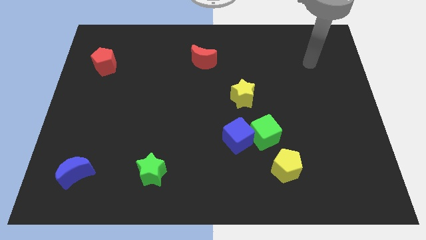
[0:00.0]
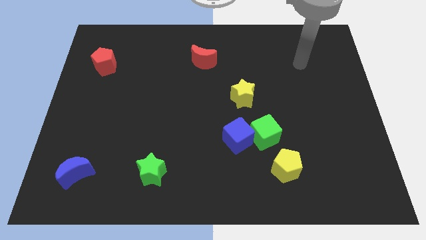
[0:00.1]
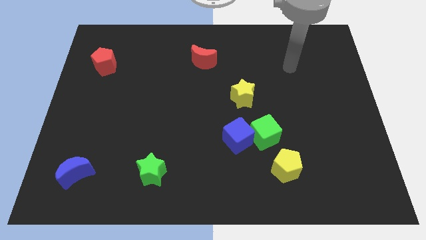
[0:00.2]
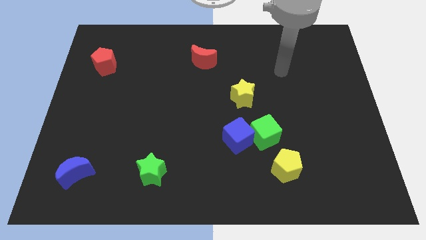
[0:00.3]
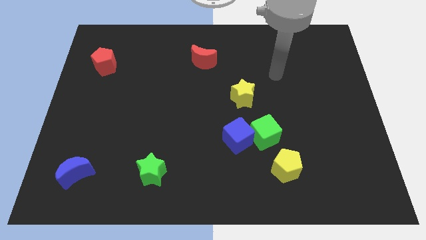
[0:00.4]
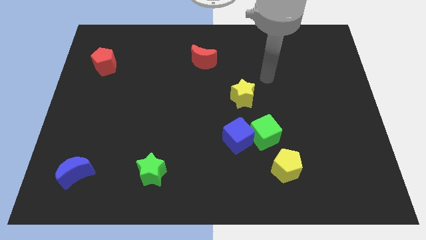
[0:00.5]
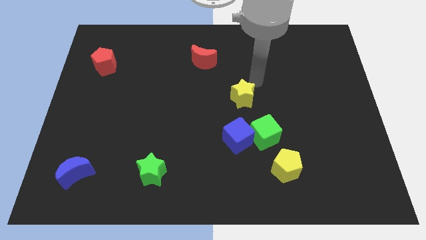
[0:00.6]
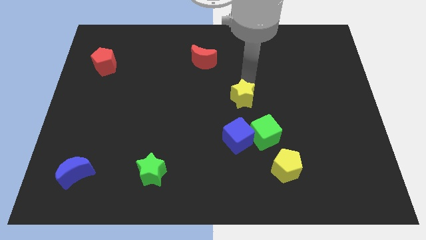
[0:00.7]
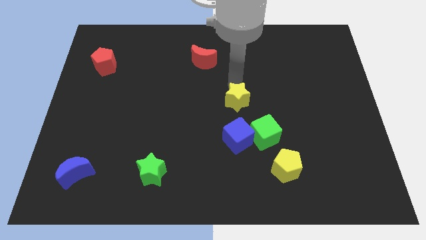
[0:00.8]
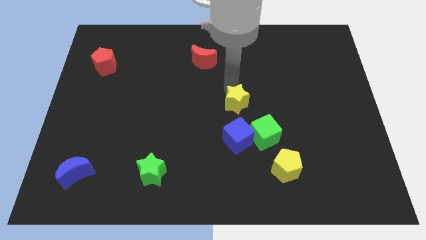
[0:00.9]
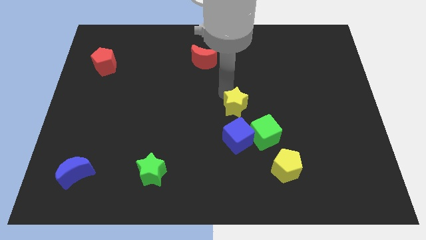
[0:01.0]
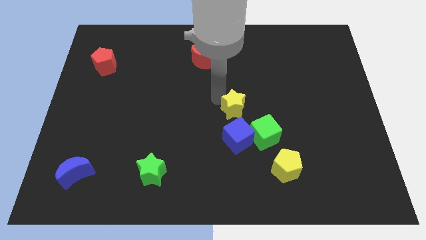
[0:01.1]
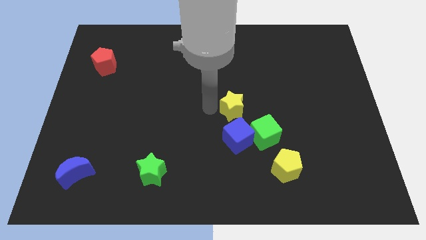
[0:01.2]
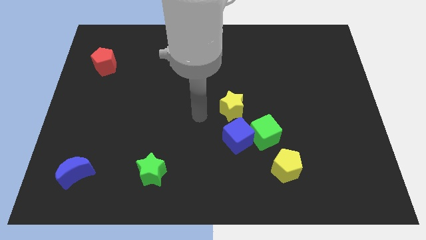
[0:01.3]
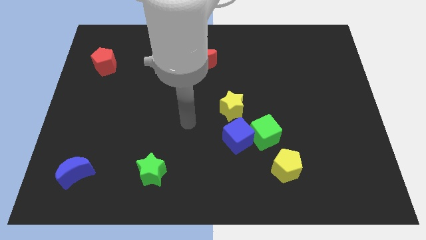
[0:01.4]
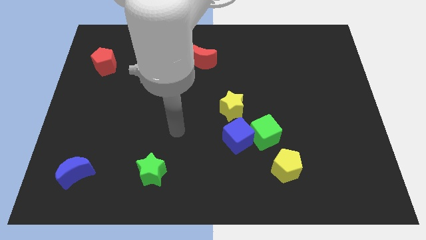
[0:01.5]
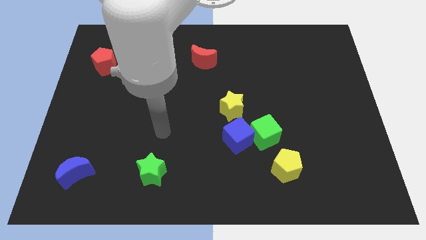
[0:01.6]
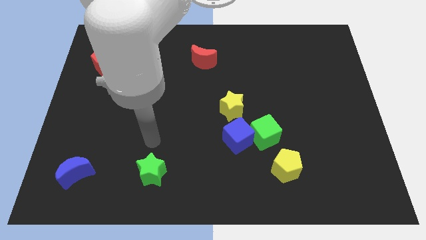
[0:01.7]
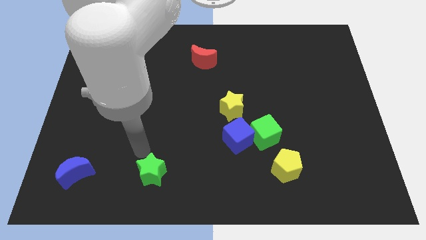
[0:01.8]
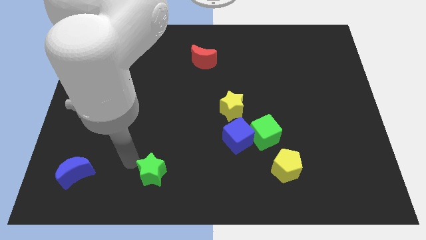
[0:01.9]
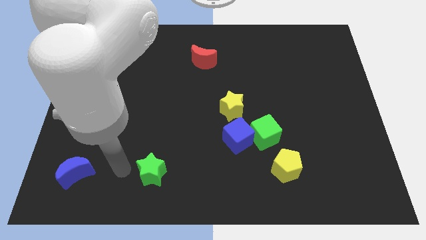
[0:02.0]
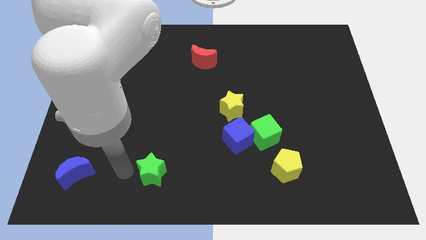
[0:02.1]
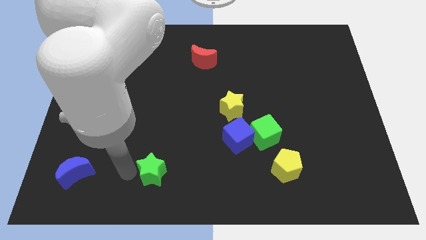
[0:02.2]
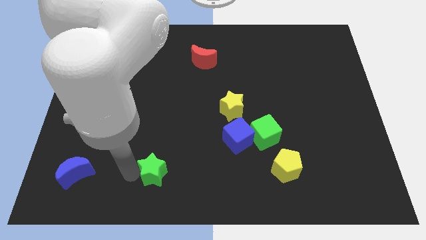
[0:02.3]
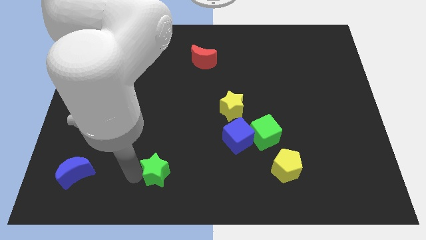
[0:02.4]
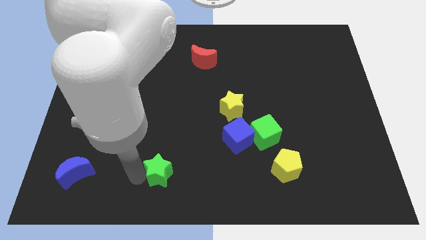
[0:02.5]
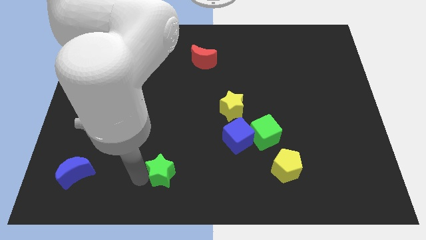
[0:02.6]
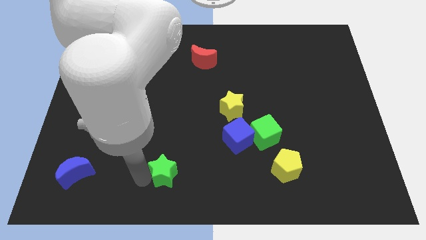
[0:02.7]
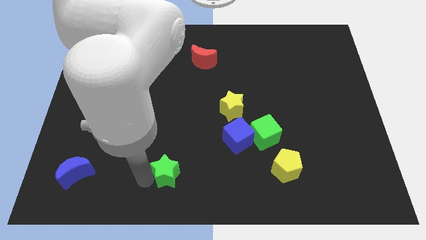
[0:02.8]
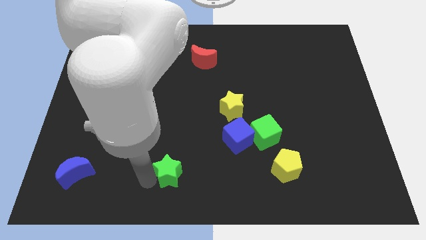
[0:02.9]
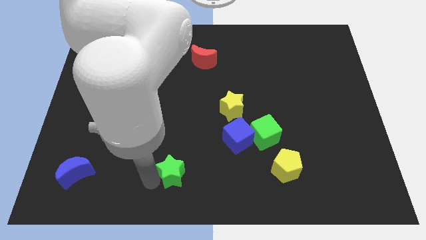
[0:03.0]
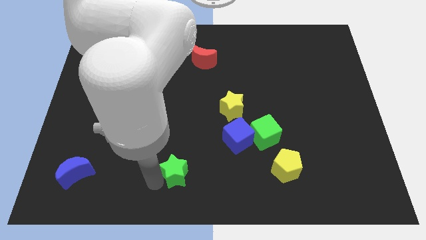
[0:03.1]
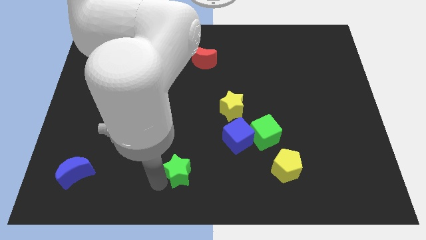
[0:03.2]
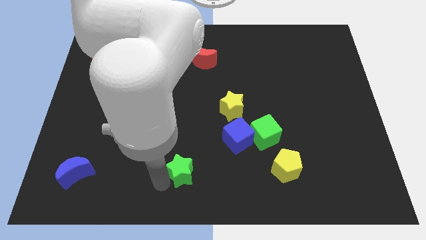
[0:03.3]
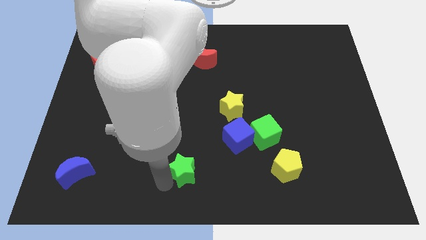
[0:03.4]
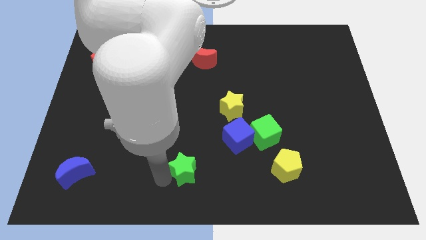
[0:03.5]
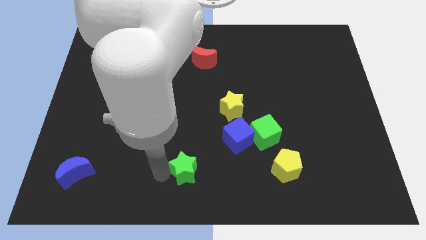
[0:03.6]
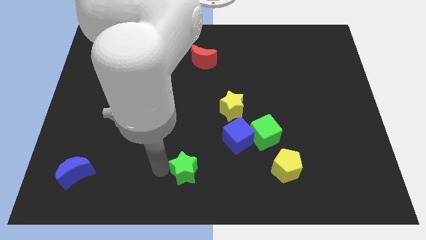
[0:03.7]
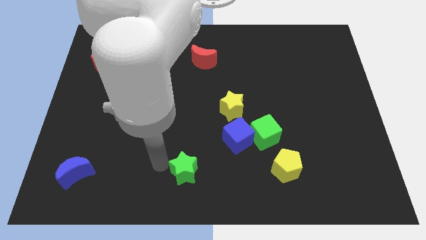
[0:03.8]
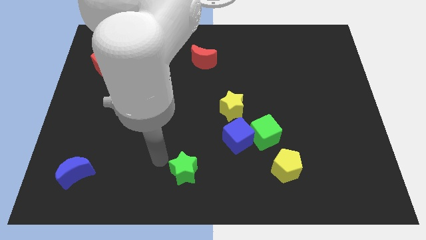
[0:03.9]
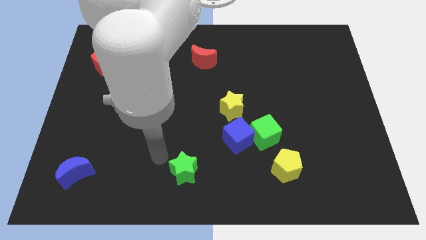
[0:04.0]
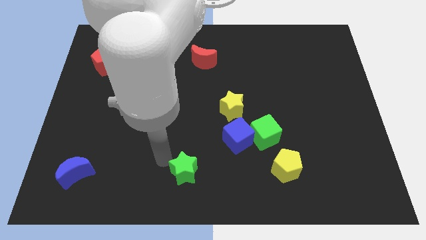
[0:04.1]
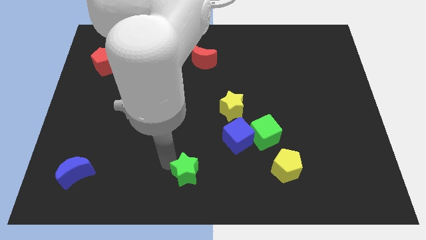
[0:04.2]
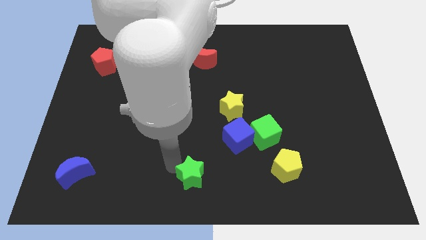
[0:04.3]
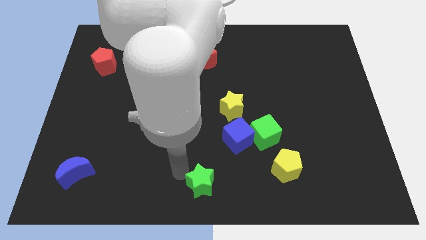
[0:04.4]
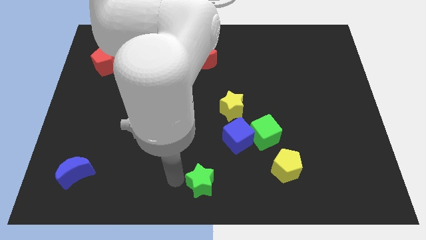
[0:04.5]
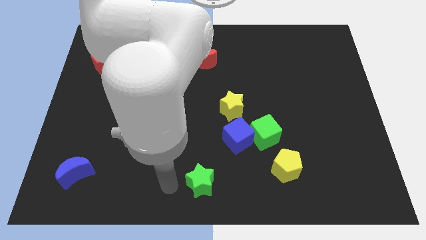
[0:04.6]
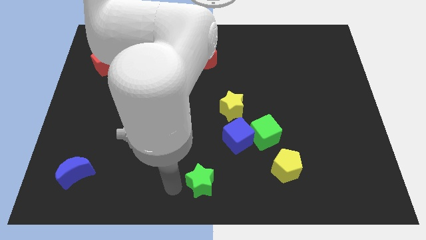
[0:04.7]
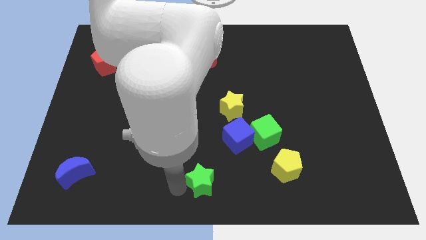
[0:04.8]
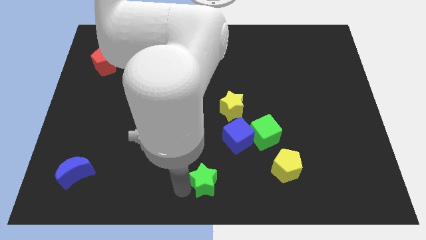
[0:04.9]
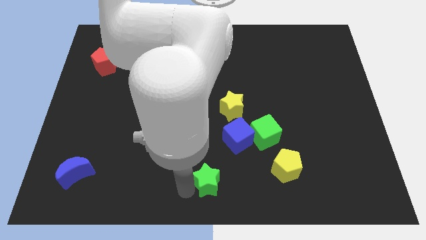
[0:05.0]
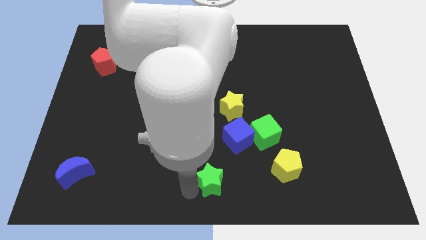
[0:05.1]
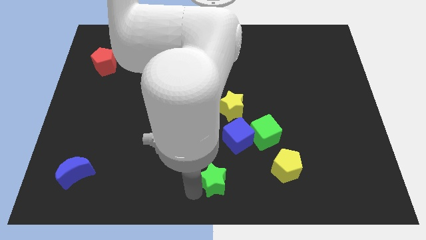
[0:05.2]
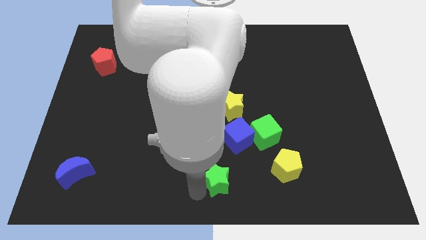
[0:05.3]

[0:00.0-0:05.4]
put the green star to the bottom of the blue cube

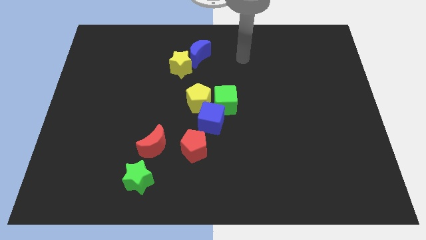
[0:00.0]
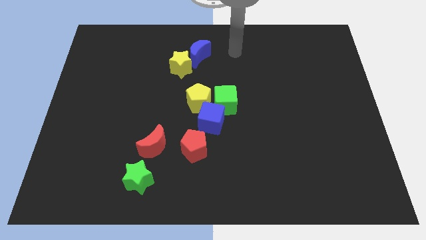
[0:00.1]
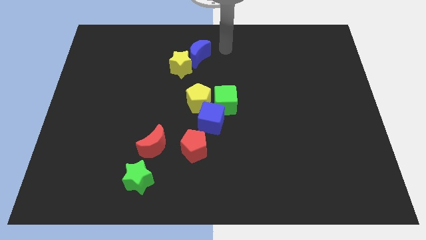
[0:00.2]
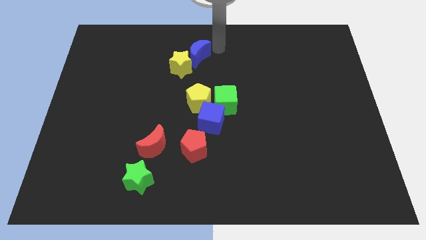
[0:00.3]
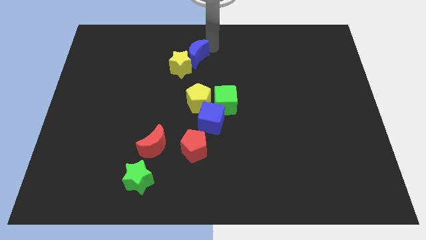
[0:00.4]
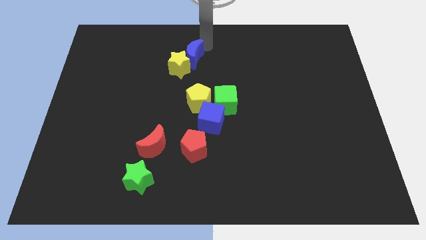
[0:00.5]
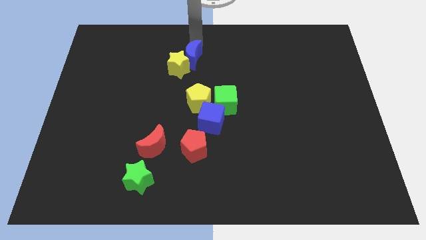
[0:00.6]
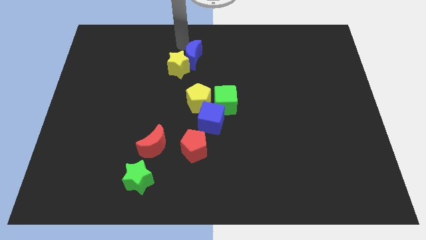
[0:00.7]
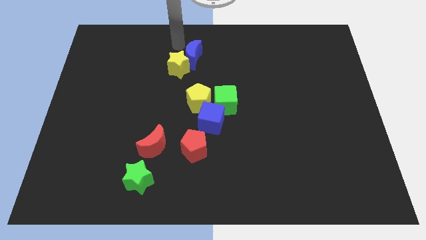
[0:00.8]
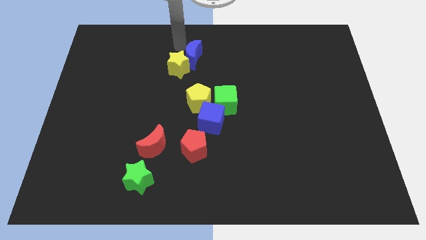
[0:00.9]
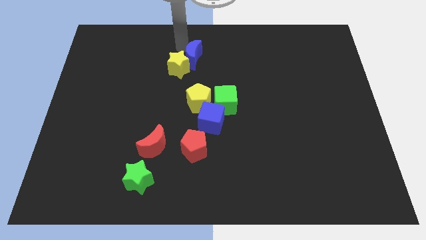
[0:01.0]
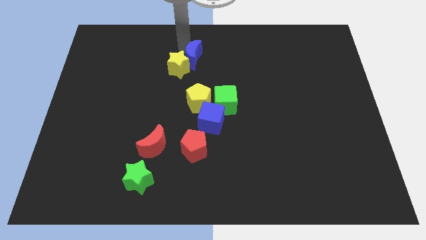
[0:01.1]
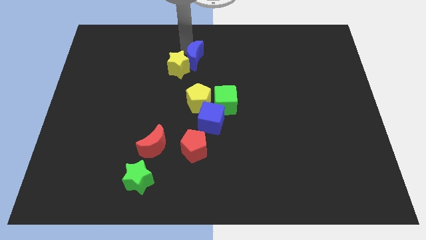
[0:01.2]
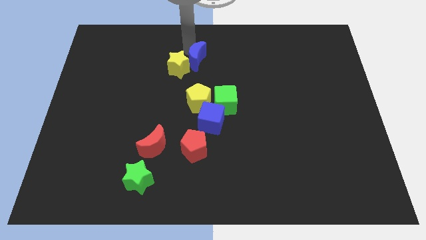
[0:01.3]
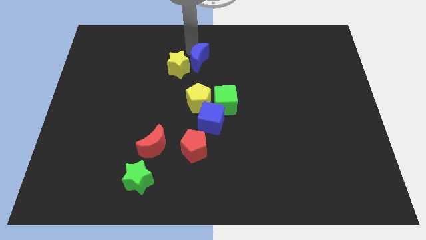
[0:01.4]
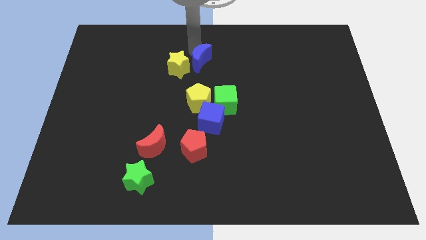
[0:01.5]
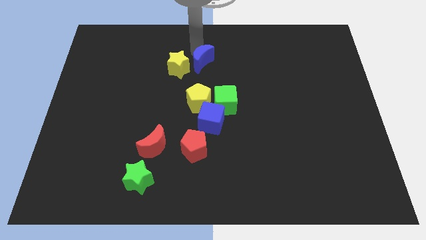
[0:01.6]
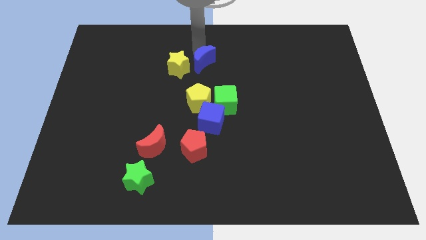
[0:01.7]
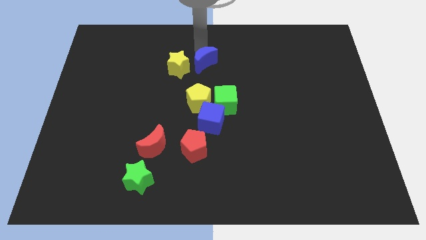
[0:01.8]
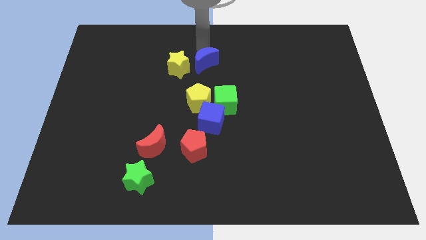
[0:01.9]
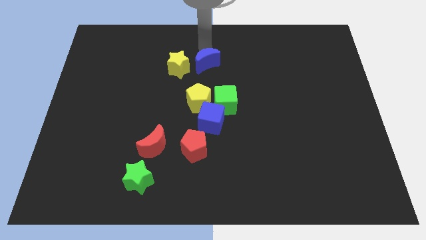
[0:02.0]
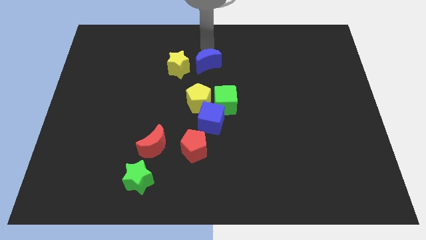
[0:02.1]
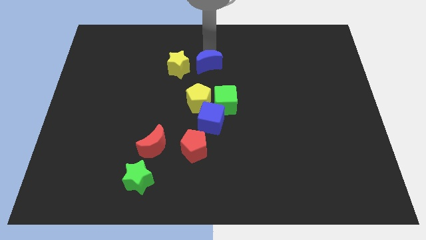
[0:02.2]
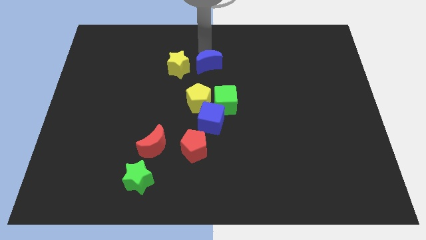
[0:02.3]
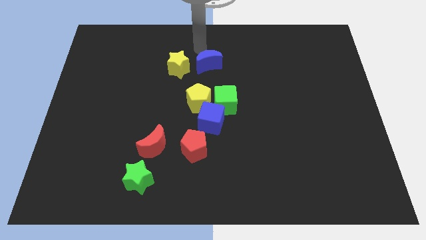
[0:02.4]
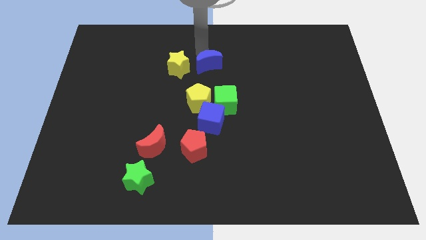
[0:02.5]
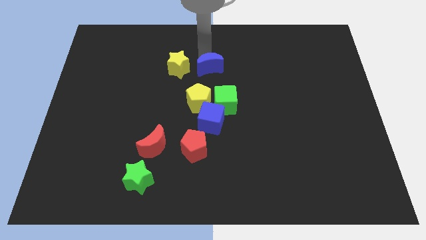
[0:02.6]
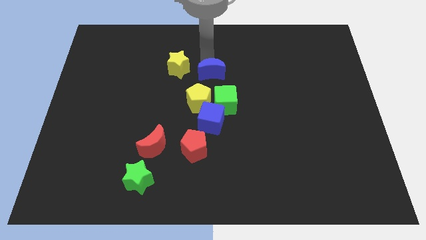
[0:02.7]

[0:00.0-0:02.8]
move the blue moon to the top right side of the yellow pentagon
